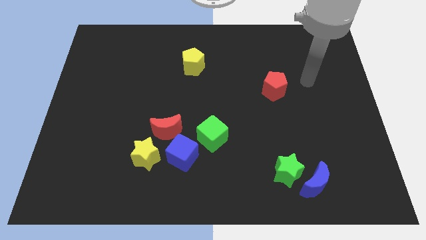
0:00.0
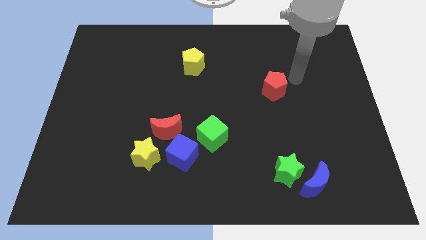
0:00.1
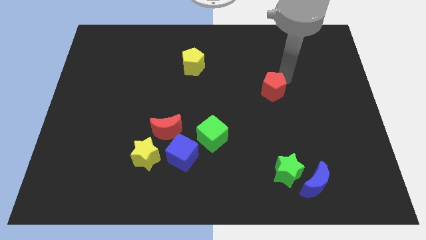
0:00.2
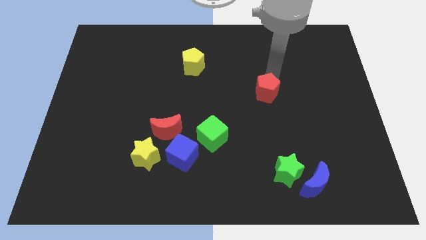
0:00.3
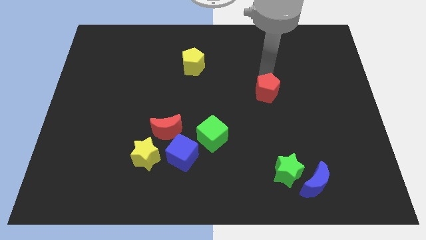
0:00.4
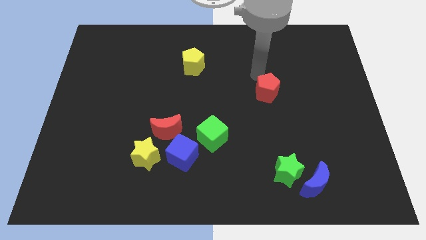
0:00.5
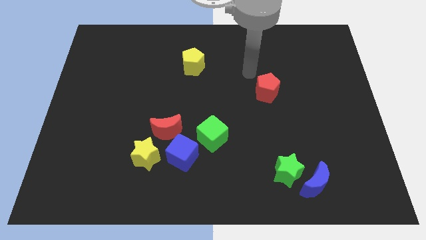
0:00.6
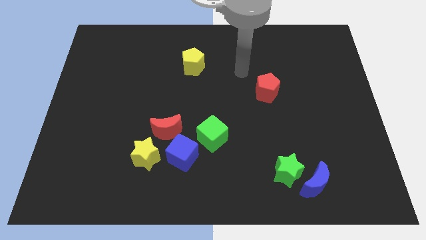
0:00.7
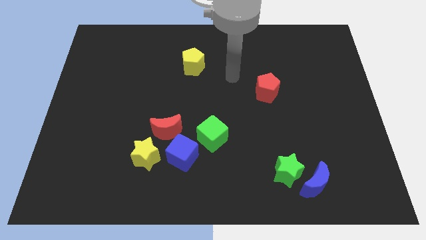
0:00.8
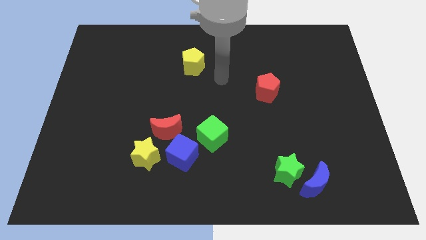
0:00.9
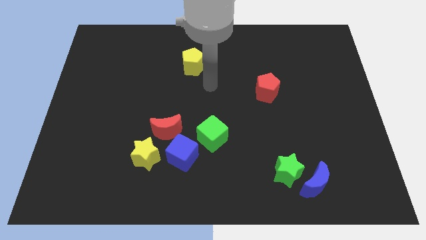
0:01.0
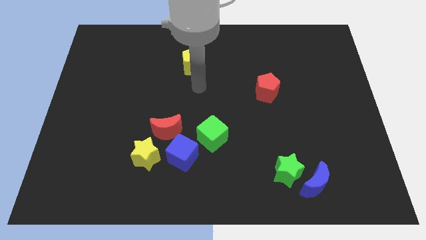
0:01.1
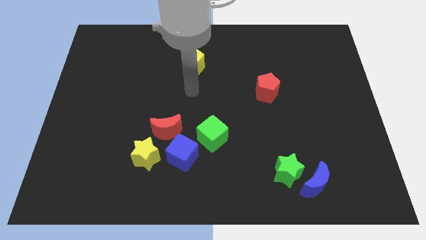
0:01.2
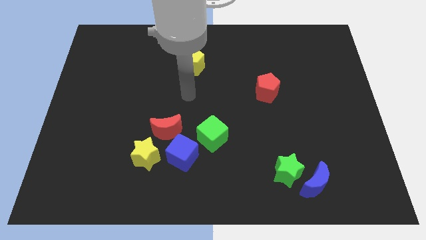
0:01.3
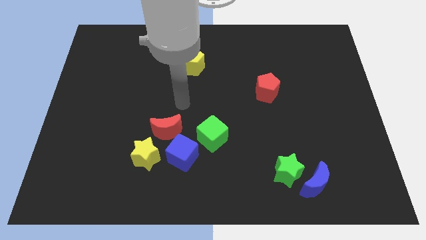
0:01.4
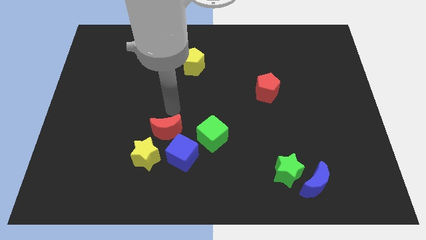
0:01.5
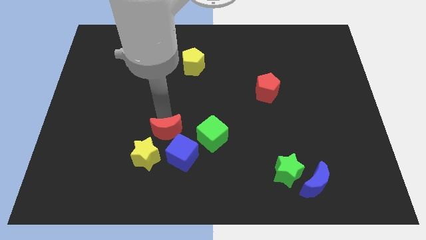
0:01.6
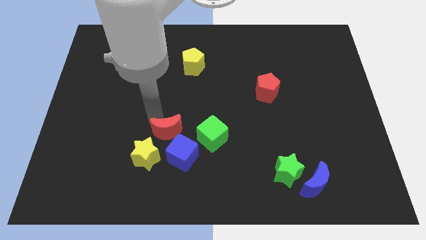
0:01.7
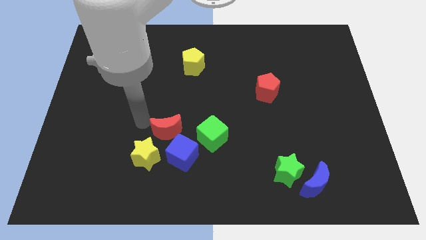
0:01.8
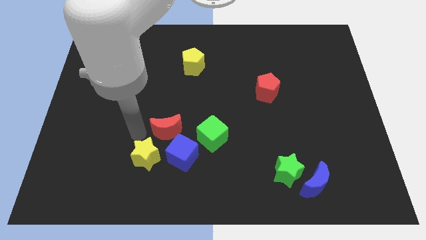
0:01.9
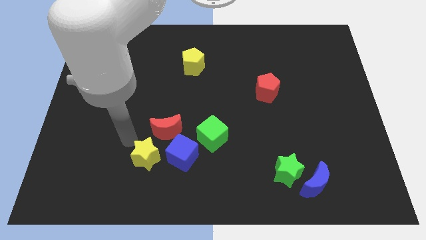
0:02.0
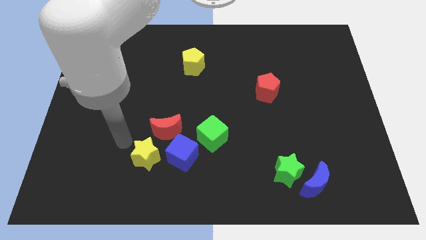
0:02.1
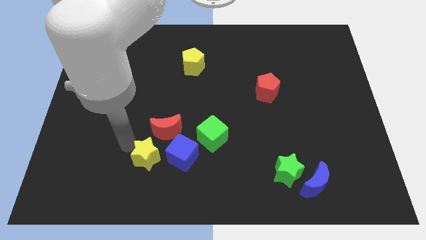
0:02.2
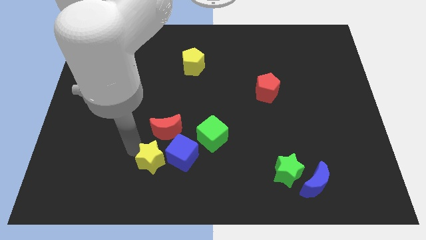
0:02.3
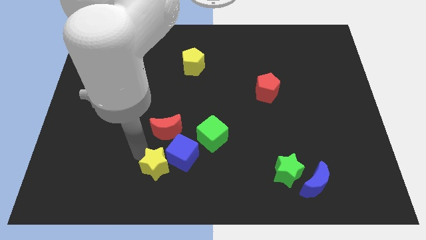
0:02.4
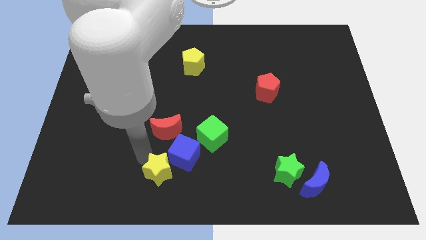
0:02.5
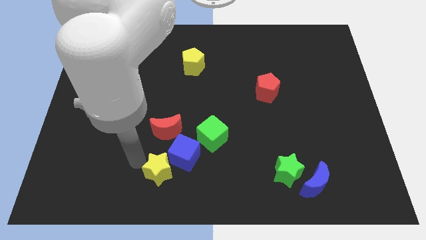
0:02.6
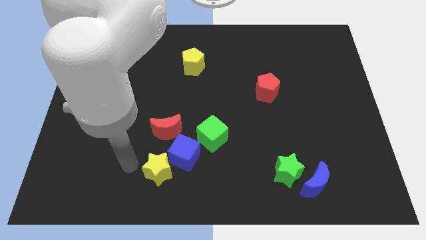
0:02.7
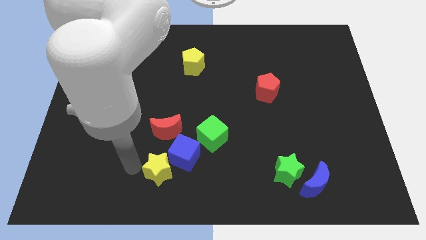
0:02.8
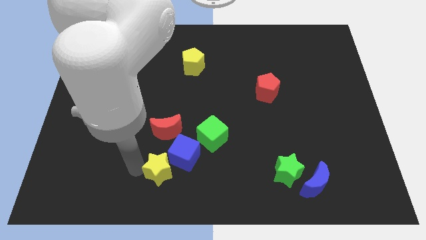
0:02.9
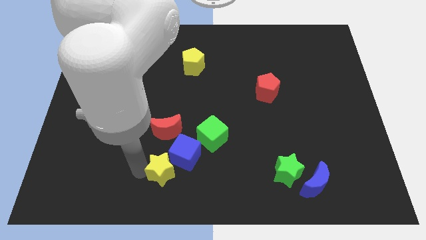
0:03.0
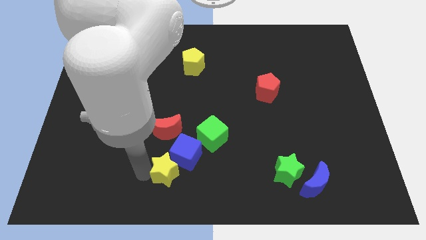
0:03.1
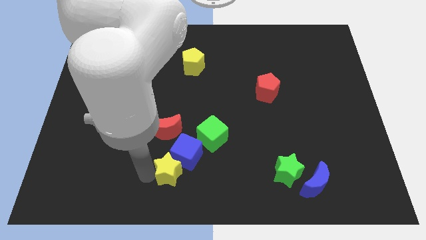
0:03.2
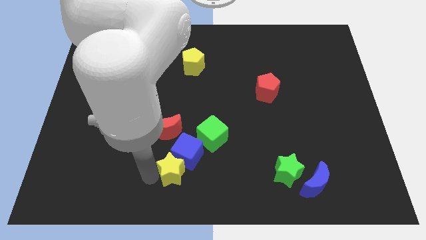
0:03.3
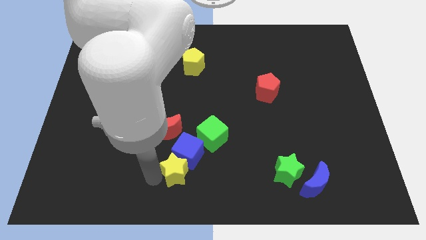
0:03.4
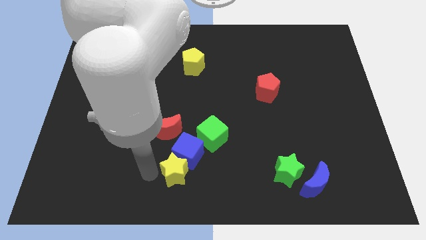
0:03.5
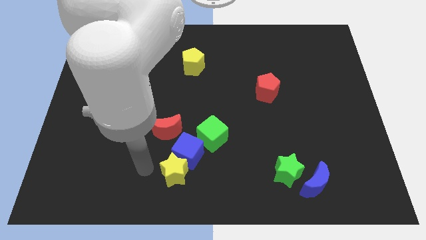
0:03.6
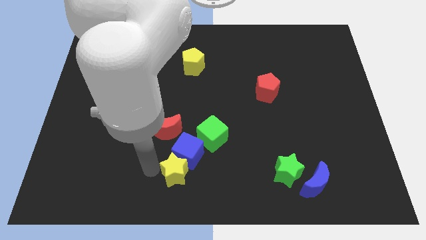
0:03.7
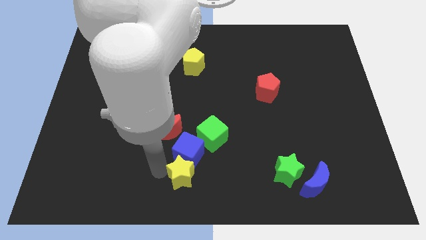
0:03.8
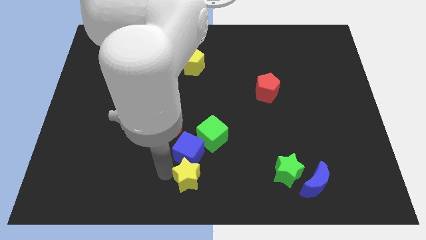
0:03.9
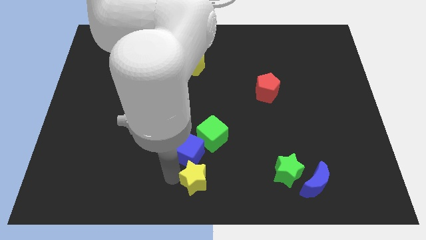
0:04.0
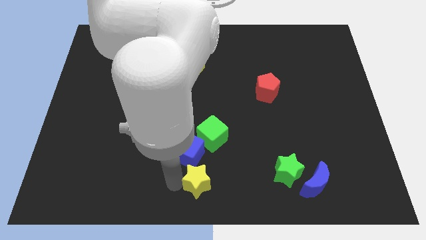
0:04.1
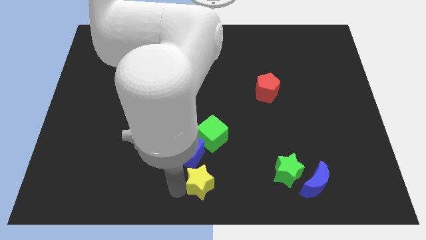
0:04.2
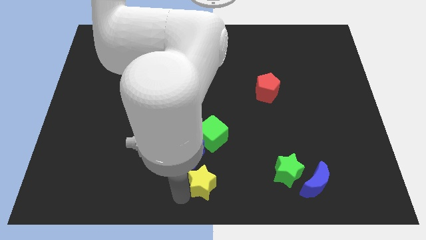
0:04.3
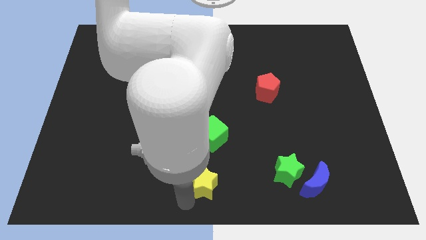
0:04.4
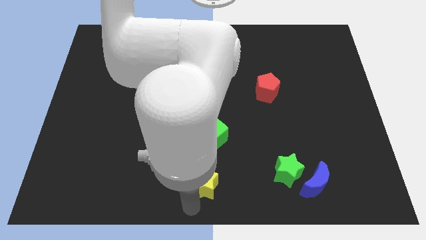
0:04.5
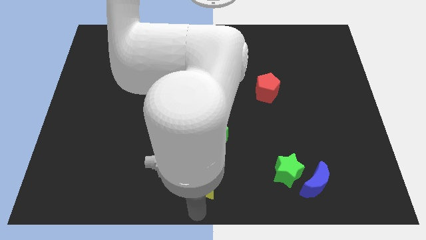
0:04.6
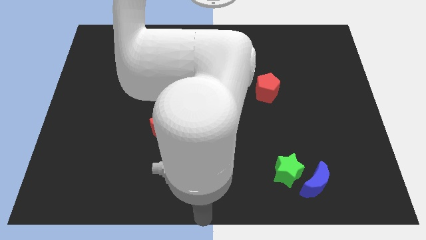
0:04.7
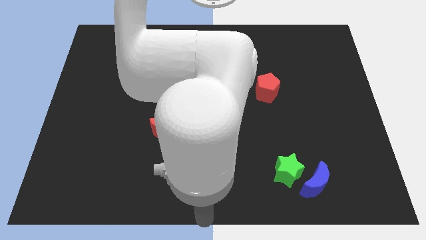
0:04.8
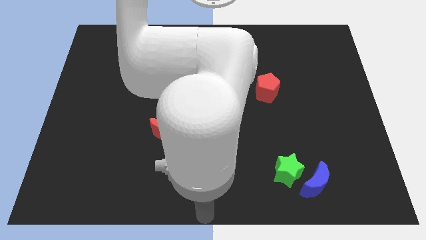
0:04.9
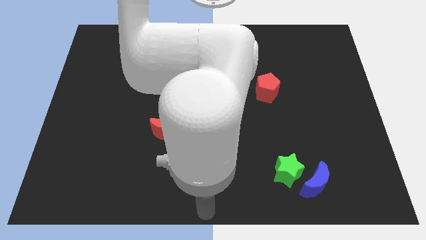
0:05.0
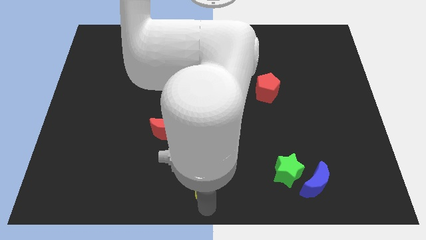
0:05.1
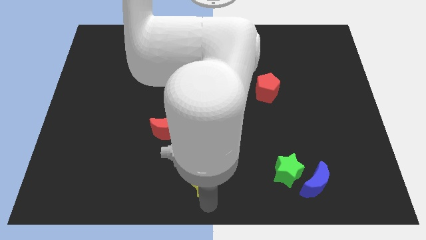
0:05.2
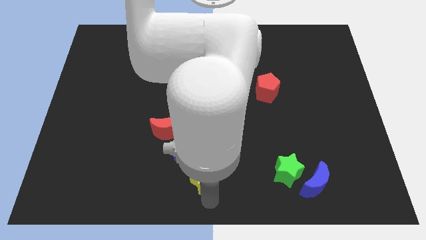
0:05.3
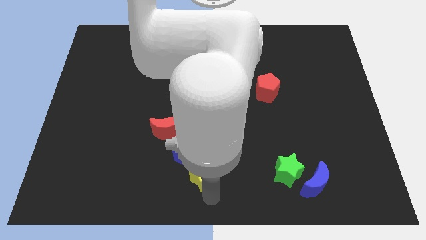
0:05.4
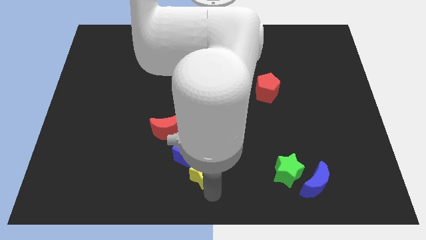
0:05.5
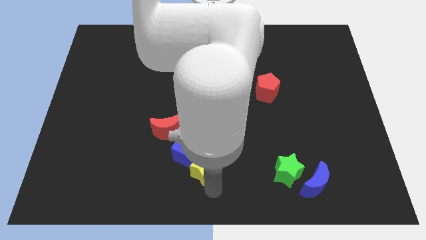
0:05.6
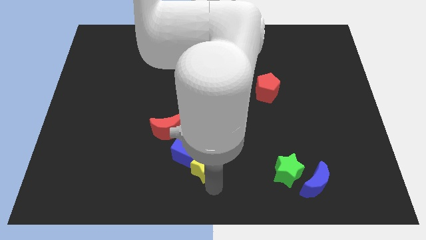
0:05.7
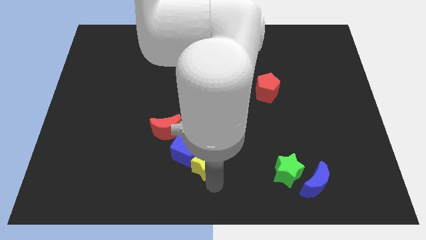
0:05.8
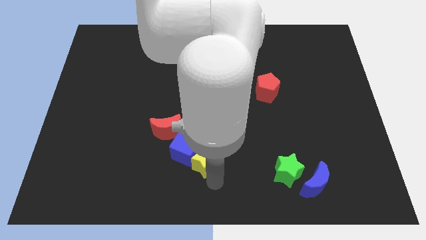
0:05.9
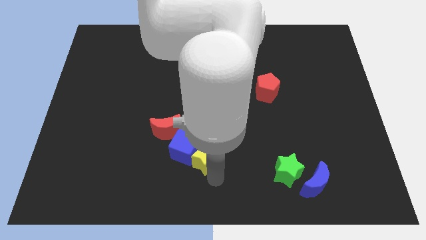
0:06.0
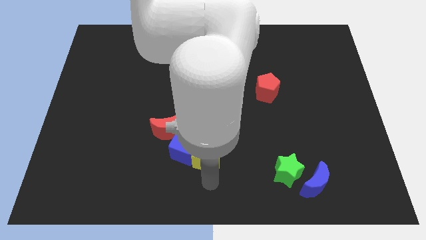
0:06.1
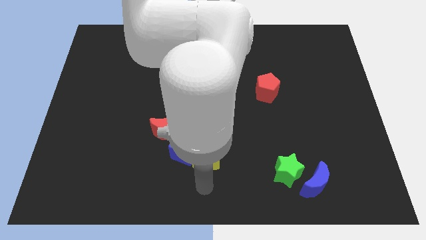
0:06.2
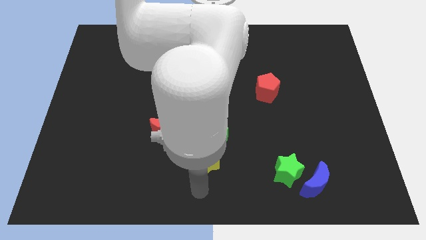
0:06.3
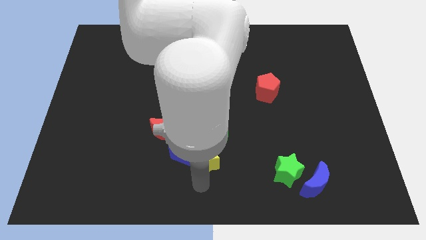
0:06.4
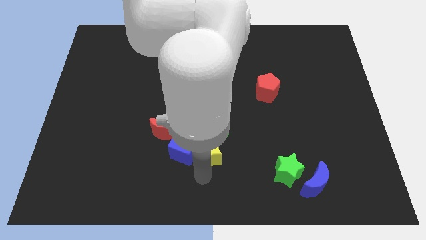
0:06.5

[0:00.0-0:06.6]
put the yellow star towards the green cube

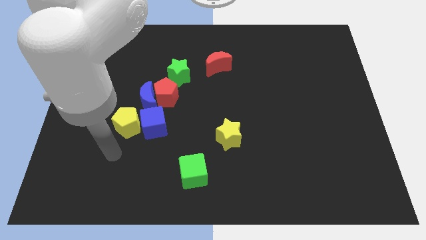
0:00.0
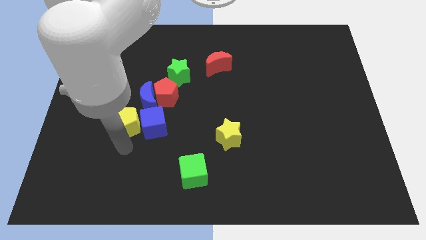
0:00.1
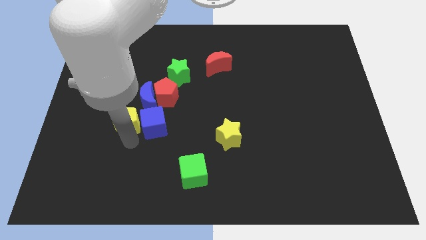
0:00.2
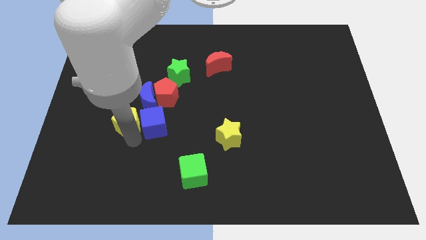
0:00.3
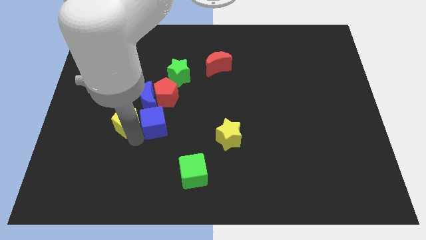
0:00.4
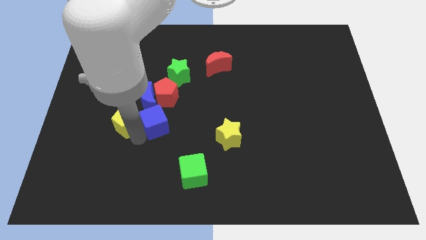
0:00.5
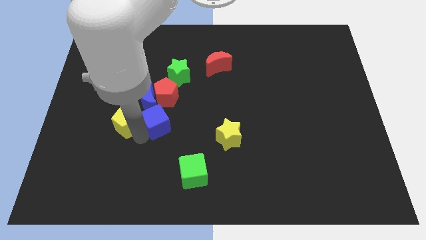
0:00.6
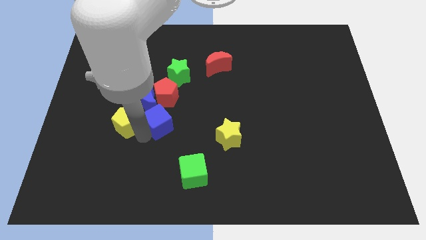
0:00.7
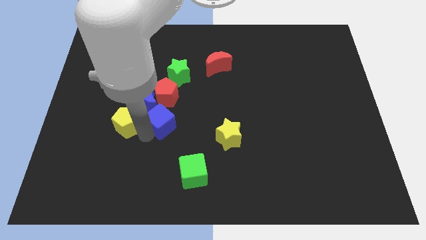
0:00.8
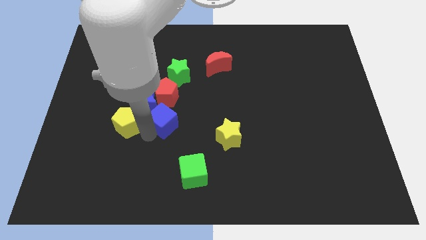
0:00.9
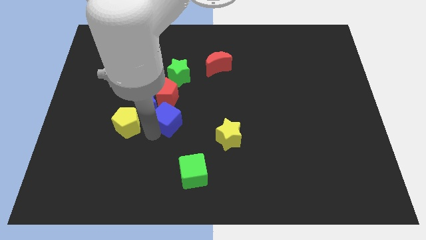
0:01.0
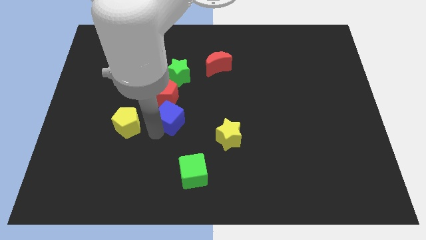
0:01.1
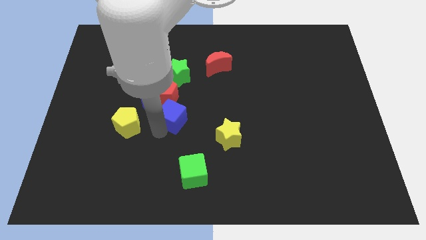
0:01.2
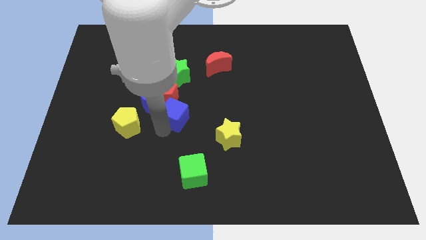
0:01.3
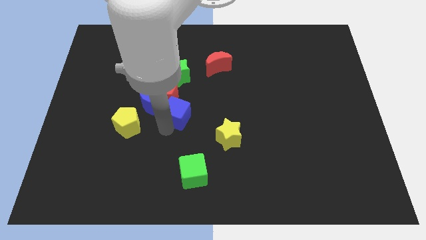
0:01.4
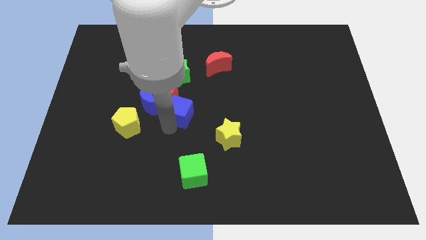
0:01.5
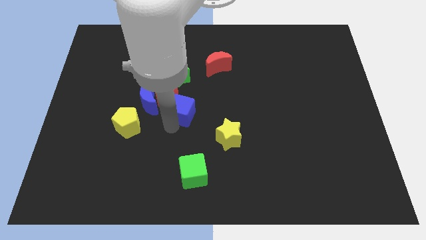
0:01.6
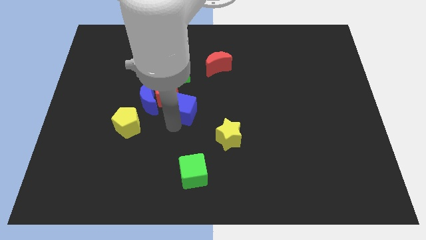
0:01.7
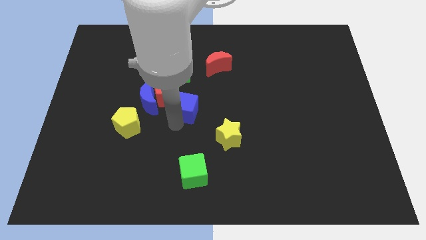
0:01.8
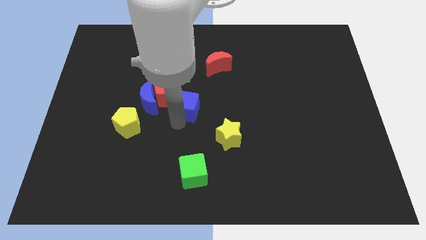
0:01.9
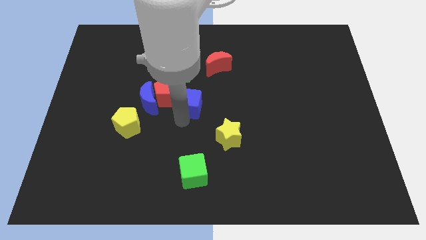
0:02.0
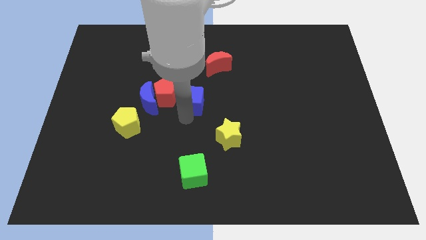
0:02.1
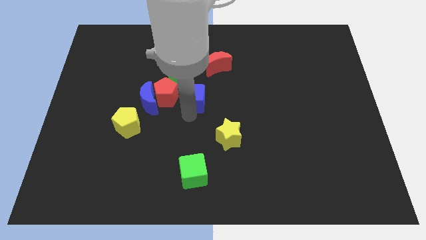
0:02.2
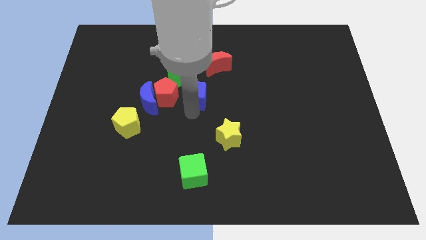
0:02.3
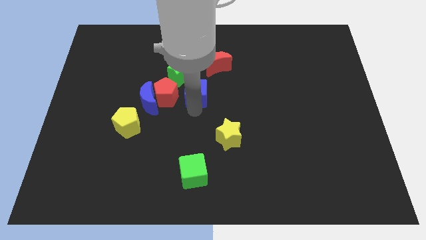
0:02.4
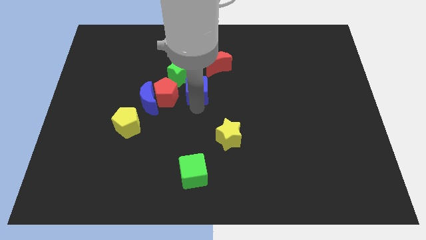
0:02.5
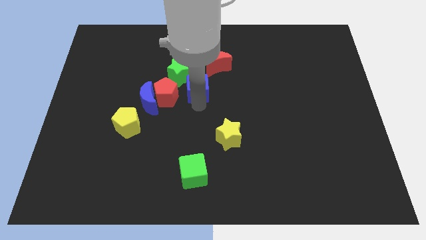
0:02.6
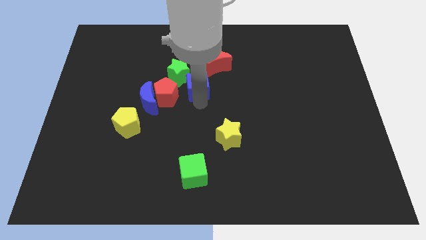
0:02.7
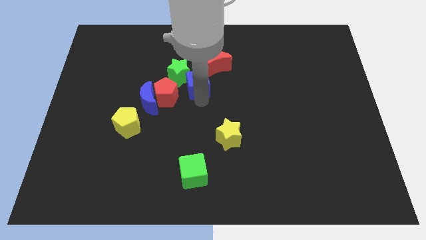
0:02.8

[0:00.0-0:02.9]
slide the blue cube to the green star
